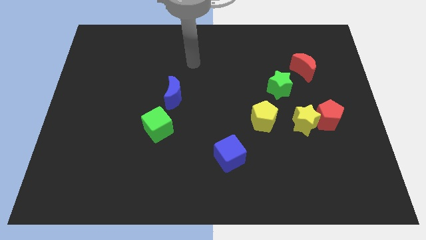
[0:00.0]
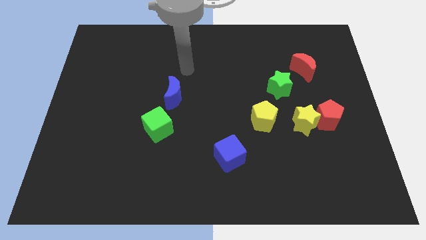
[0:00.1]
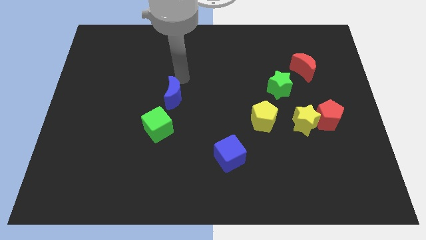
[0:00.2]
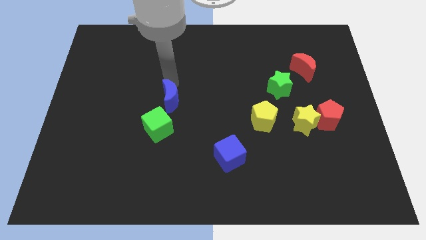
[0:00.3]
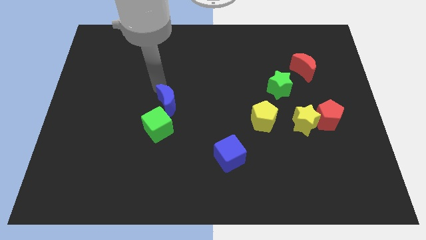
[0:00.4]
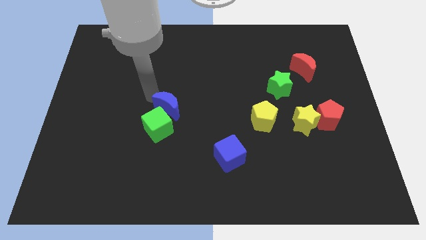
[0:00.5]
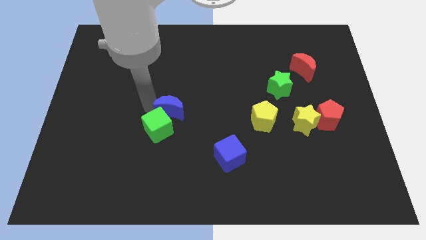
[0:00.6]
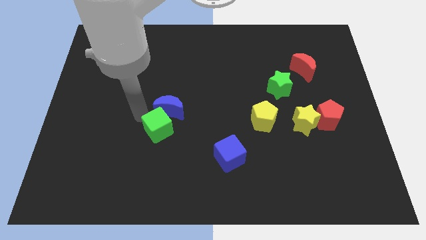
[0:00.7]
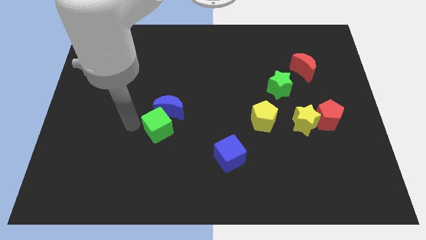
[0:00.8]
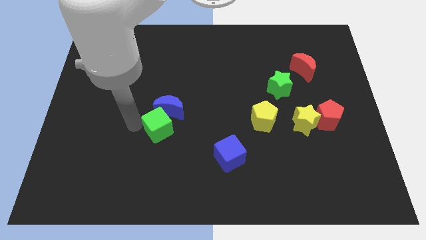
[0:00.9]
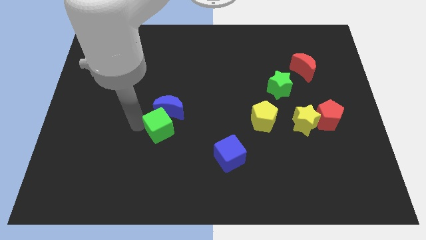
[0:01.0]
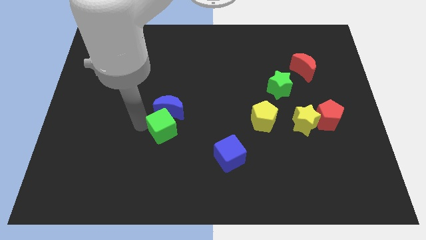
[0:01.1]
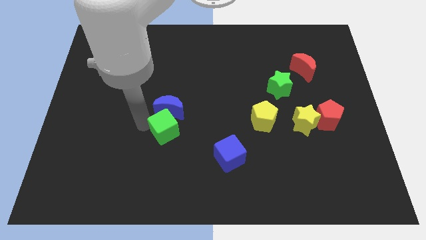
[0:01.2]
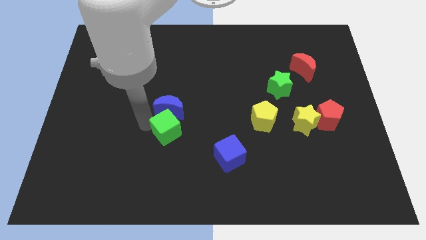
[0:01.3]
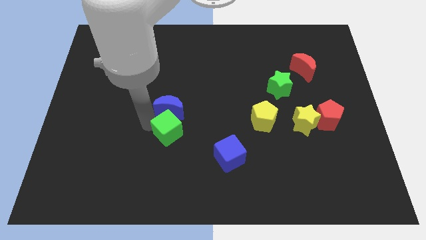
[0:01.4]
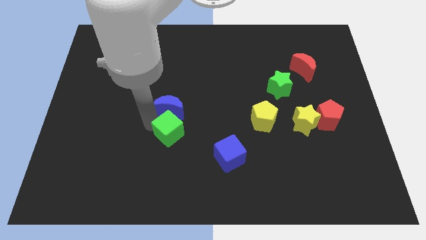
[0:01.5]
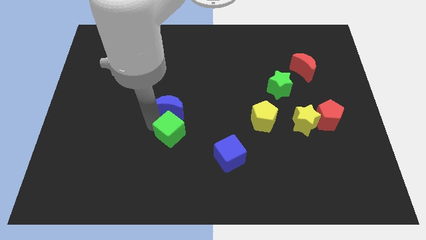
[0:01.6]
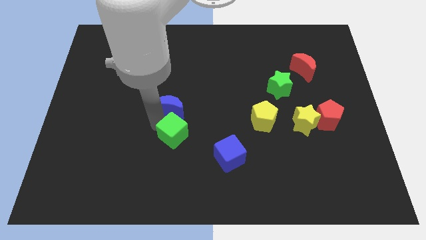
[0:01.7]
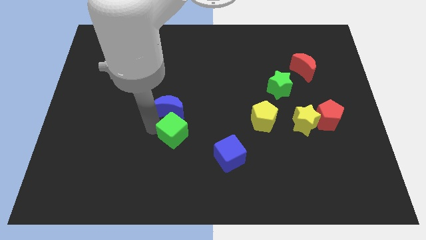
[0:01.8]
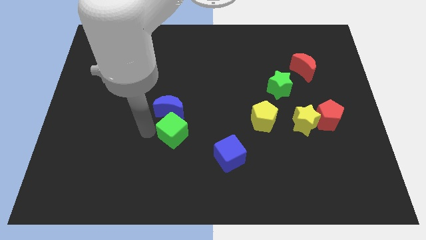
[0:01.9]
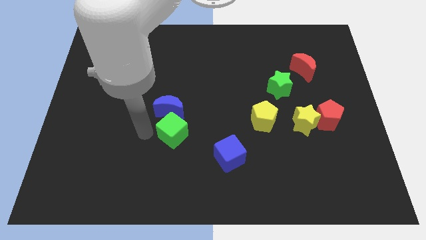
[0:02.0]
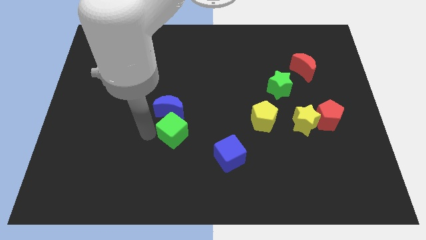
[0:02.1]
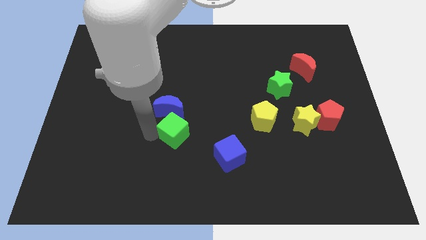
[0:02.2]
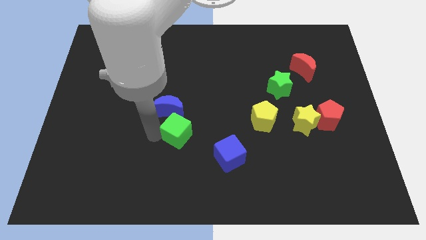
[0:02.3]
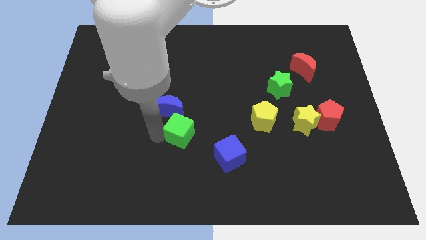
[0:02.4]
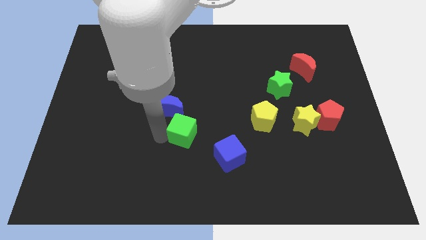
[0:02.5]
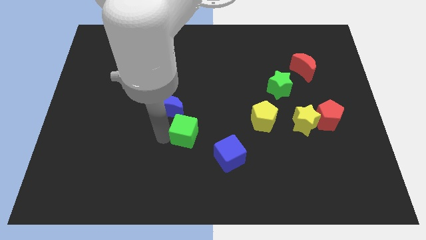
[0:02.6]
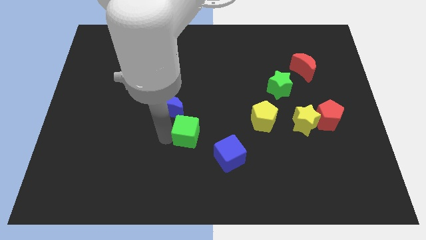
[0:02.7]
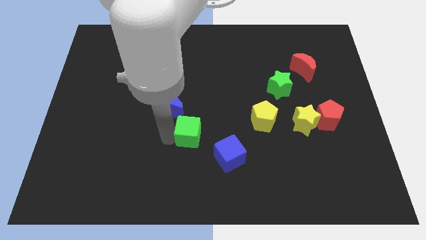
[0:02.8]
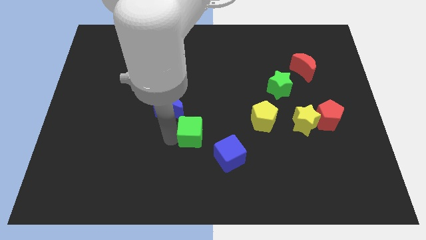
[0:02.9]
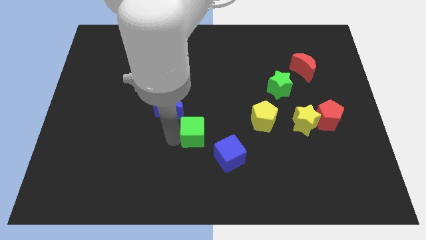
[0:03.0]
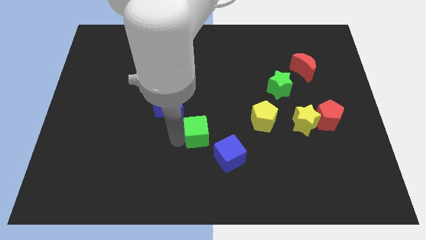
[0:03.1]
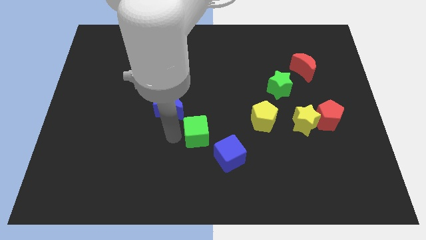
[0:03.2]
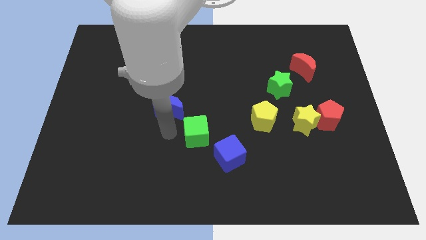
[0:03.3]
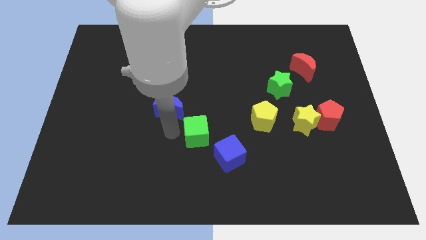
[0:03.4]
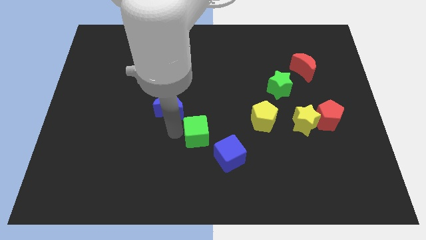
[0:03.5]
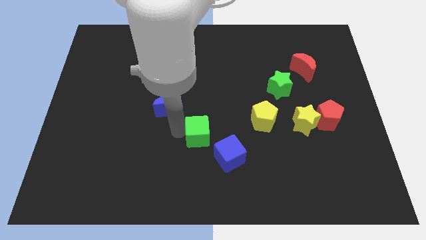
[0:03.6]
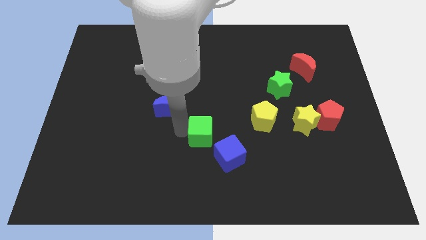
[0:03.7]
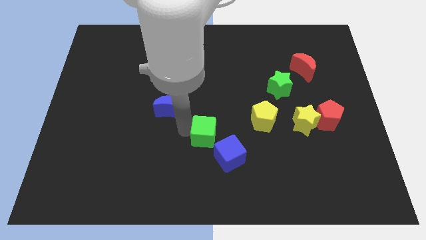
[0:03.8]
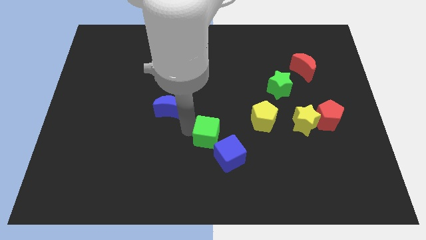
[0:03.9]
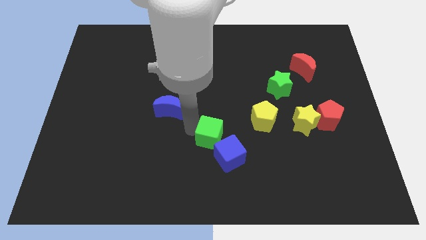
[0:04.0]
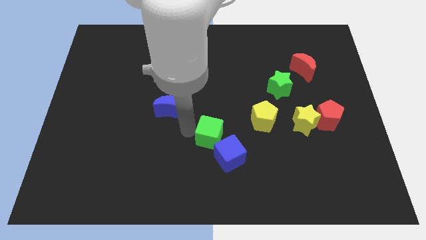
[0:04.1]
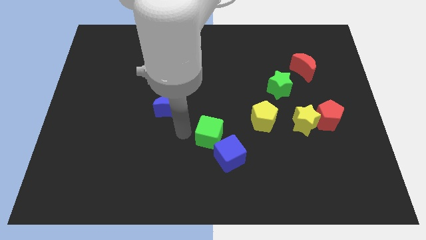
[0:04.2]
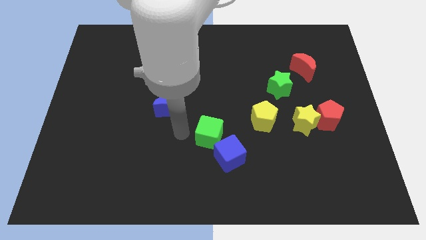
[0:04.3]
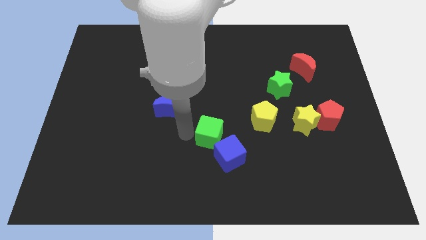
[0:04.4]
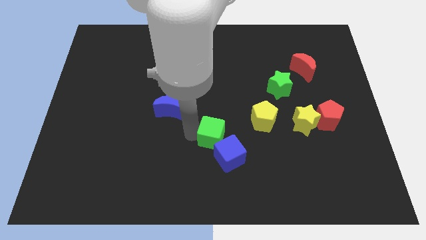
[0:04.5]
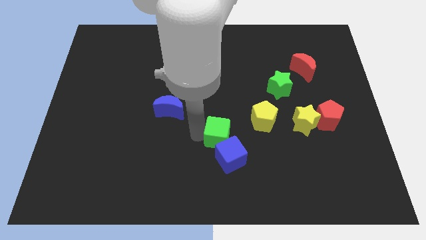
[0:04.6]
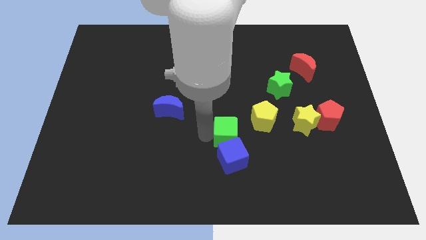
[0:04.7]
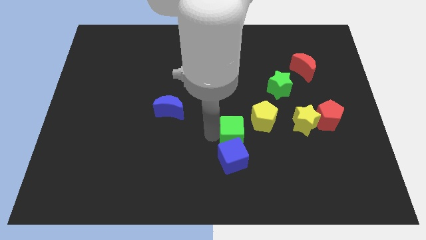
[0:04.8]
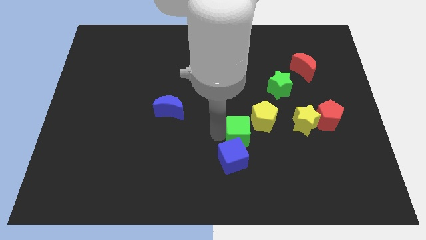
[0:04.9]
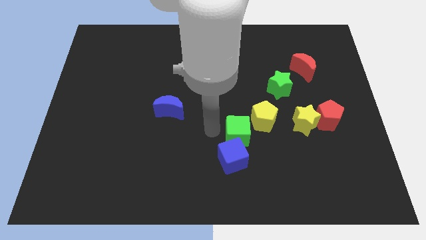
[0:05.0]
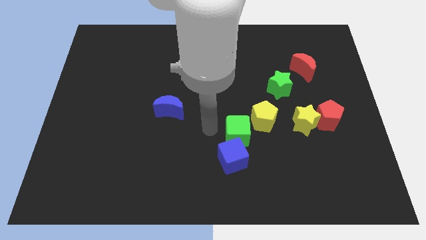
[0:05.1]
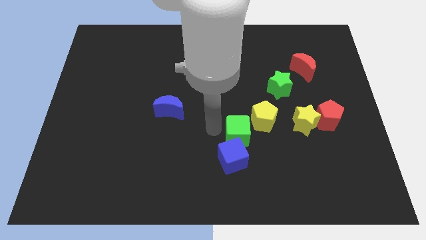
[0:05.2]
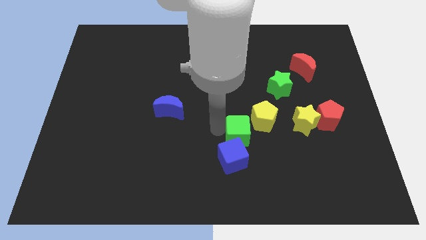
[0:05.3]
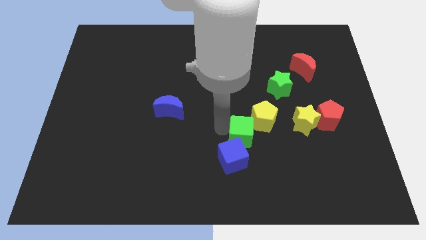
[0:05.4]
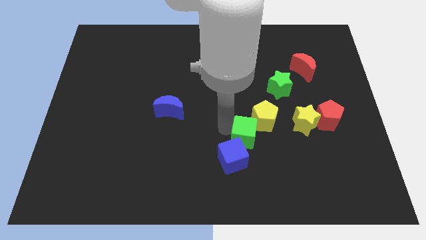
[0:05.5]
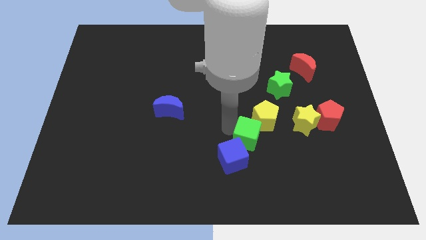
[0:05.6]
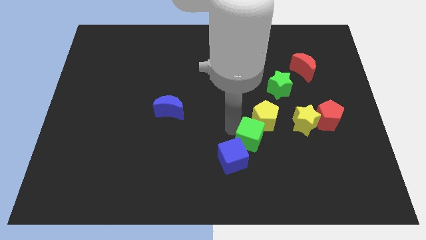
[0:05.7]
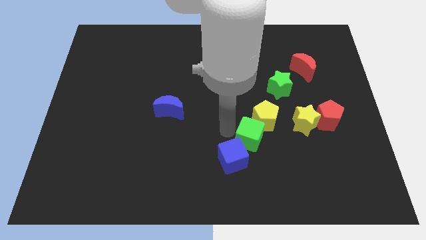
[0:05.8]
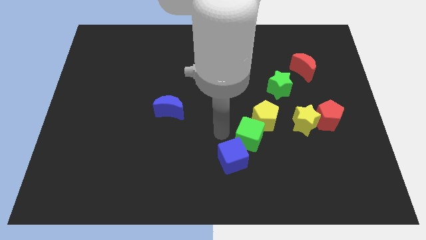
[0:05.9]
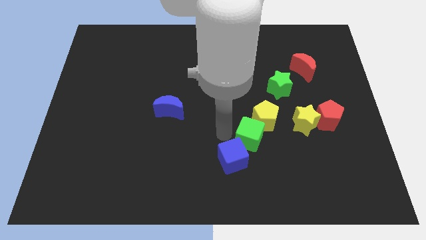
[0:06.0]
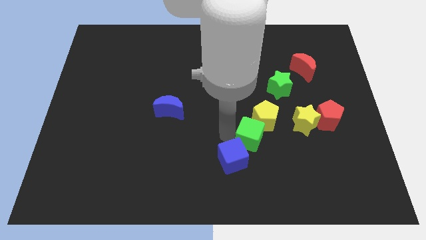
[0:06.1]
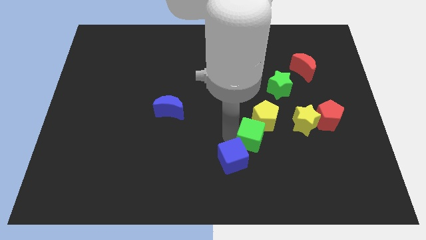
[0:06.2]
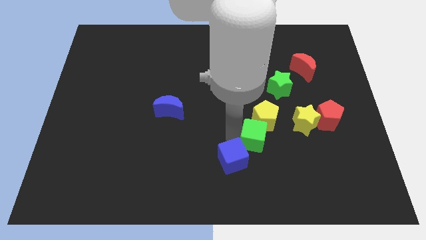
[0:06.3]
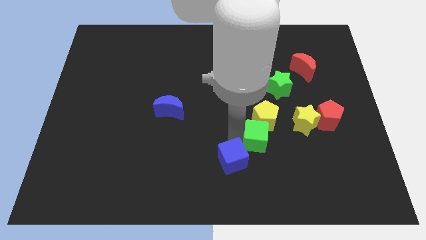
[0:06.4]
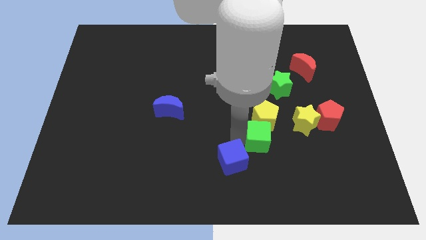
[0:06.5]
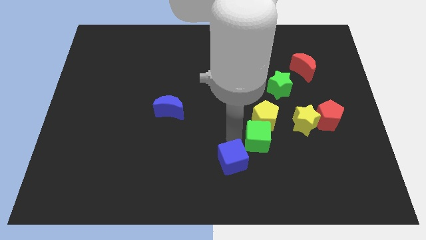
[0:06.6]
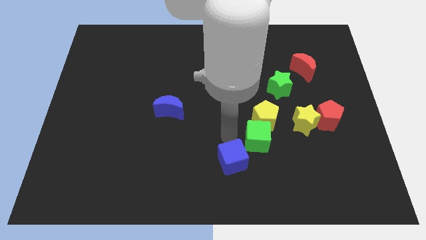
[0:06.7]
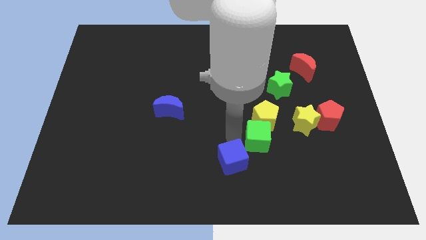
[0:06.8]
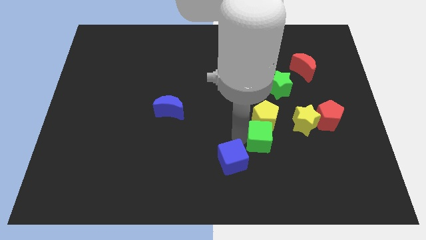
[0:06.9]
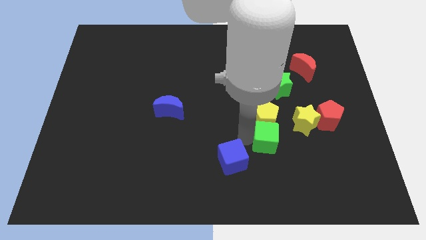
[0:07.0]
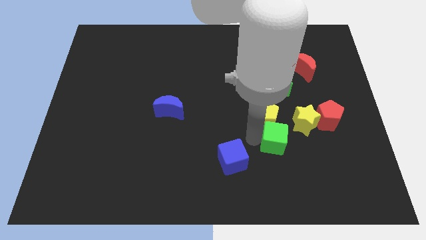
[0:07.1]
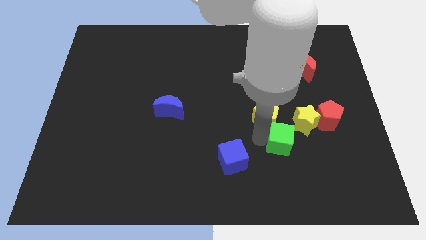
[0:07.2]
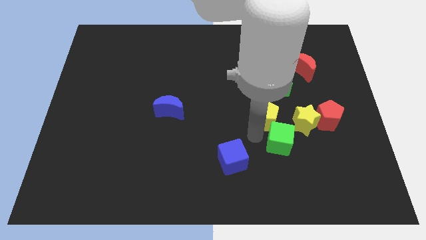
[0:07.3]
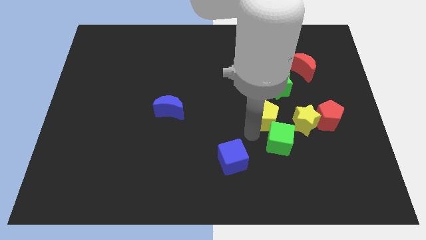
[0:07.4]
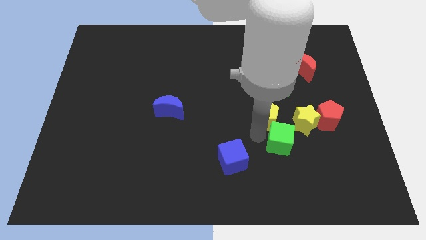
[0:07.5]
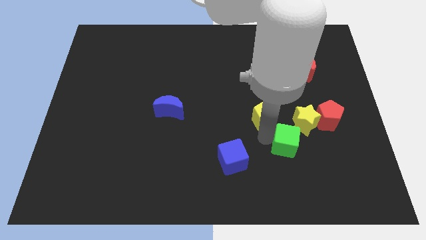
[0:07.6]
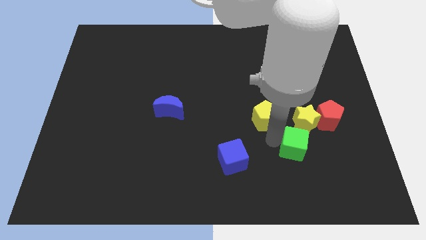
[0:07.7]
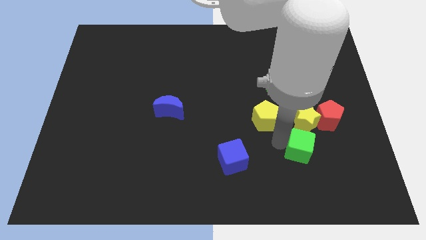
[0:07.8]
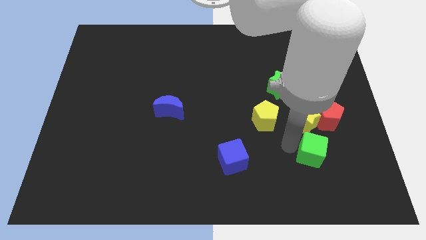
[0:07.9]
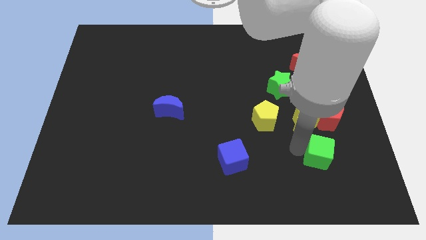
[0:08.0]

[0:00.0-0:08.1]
push the green cube to the bottom of the red pentagon

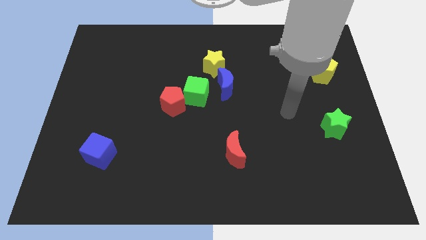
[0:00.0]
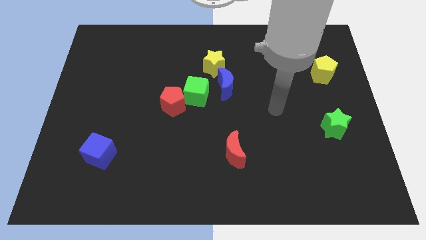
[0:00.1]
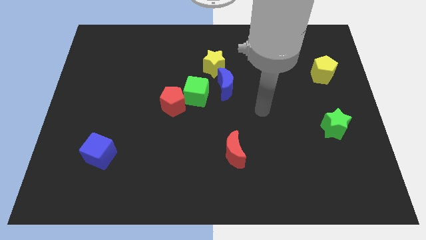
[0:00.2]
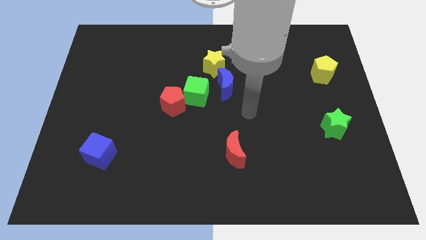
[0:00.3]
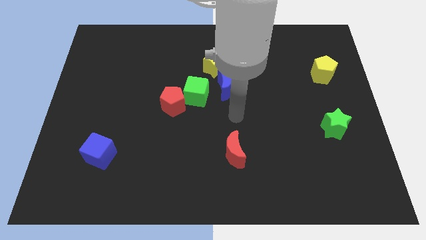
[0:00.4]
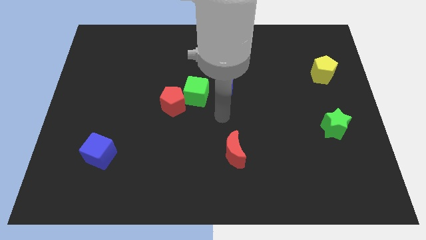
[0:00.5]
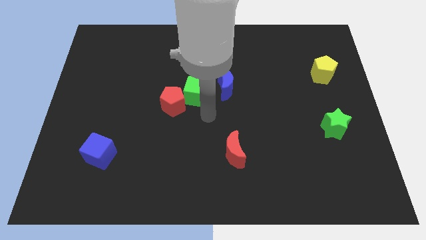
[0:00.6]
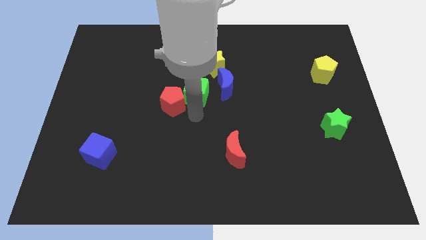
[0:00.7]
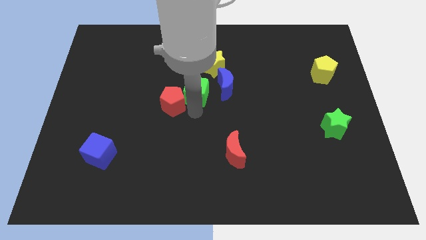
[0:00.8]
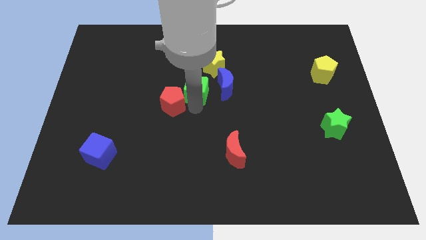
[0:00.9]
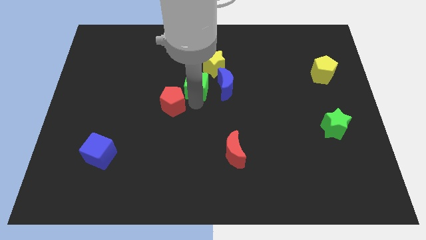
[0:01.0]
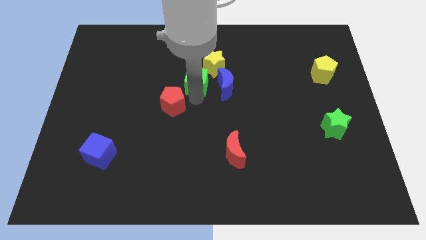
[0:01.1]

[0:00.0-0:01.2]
put the green cube to the top left side of the blue moon
